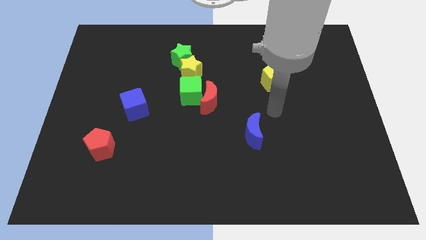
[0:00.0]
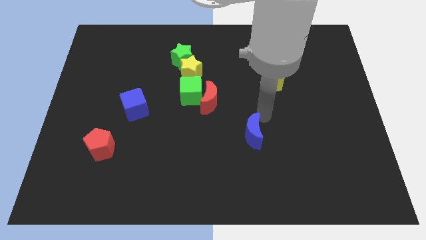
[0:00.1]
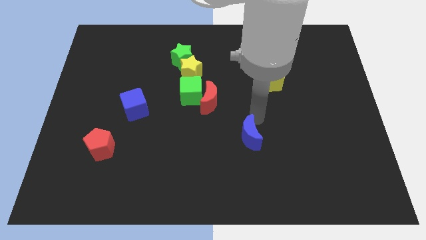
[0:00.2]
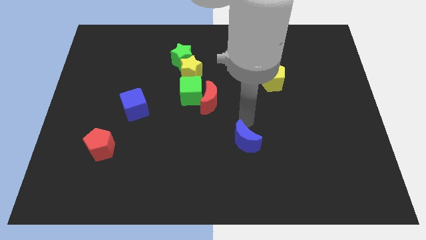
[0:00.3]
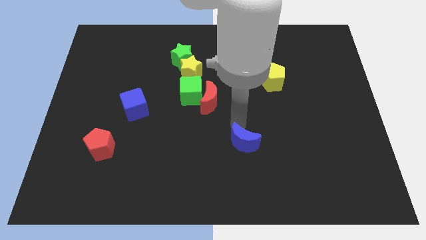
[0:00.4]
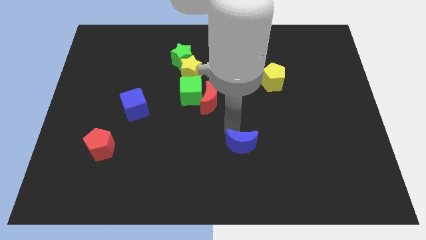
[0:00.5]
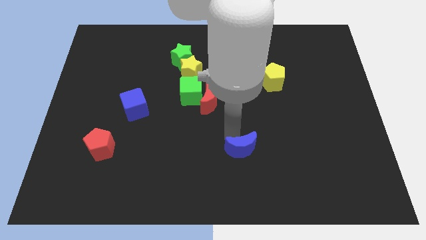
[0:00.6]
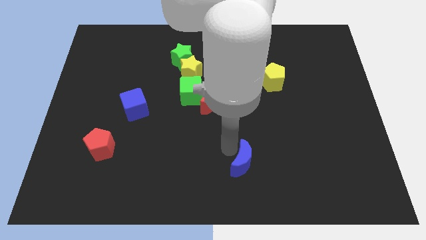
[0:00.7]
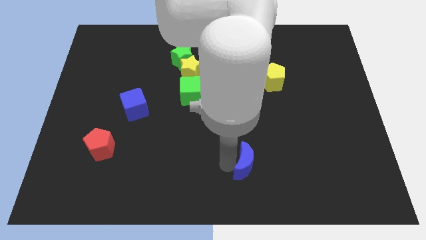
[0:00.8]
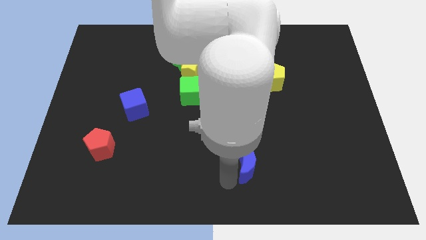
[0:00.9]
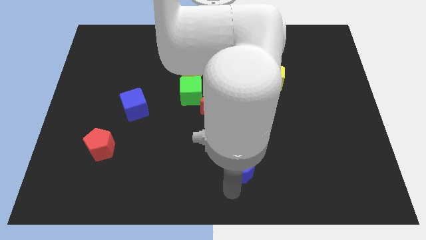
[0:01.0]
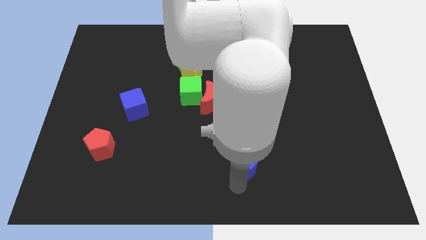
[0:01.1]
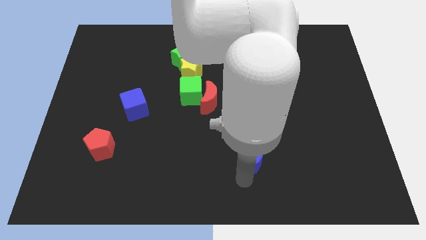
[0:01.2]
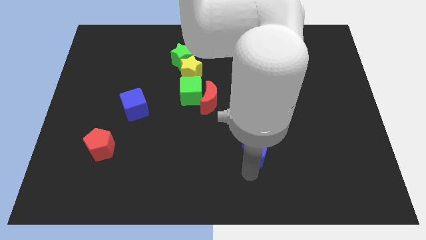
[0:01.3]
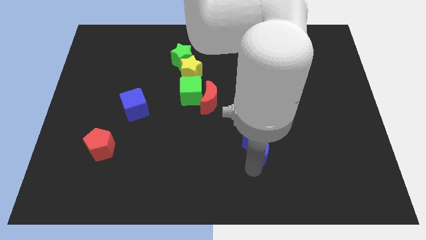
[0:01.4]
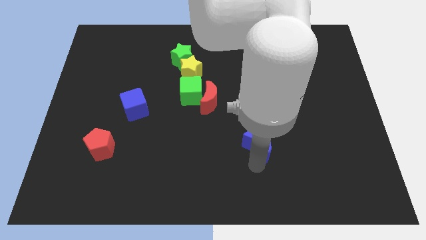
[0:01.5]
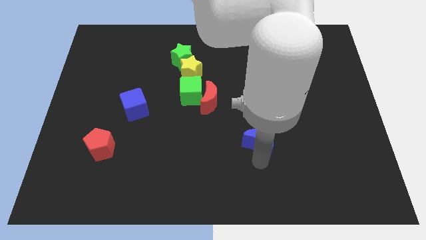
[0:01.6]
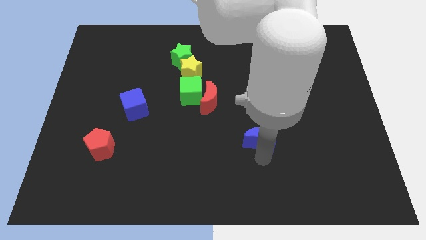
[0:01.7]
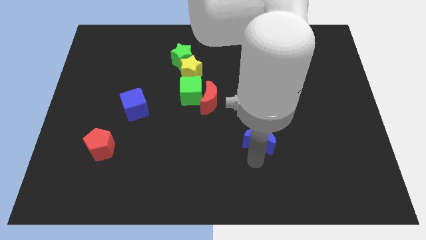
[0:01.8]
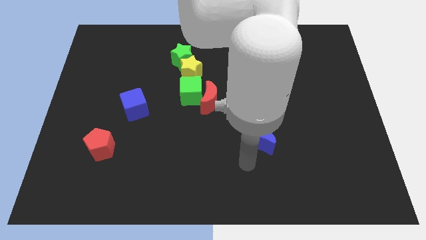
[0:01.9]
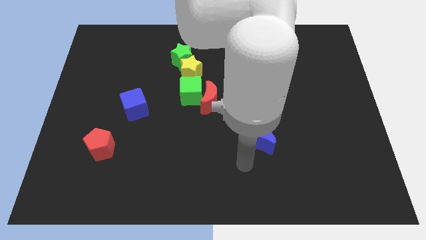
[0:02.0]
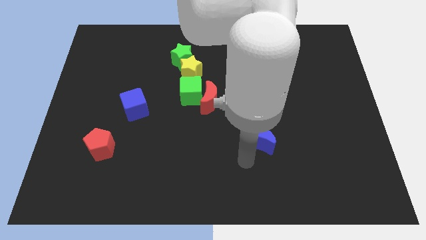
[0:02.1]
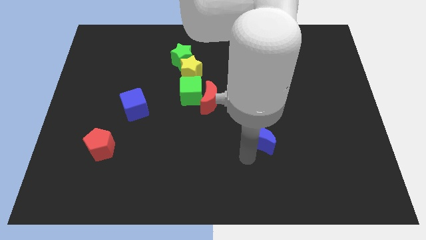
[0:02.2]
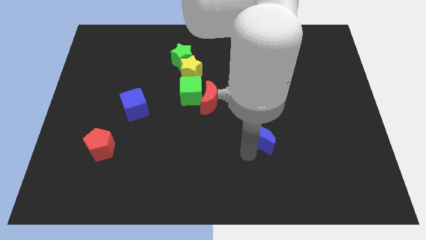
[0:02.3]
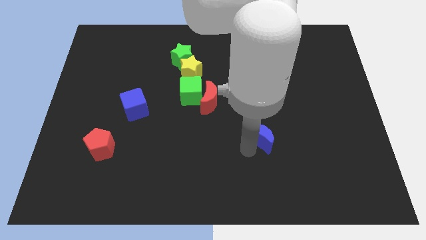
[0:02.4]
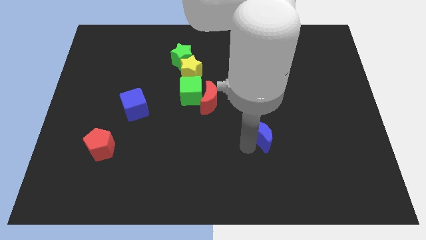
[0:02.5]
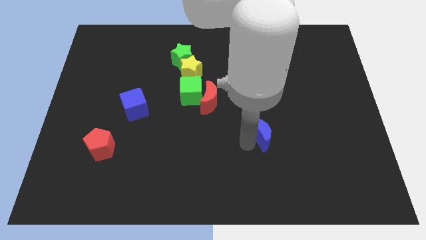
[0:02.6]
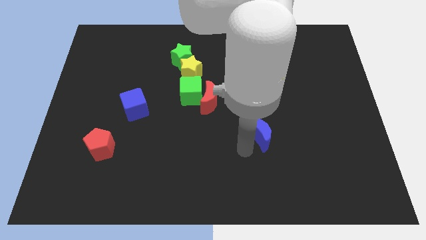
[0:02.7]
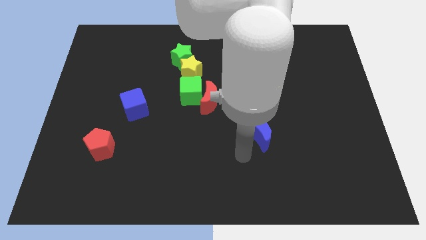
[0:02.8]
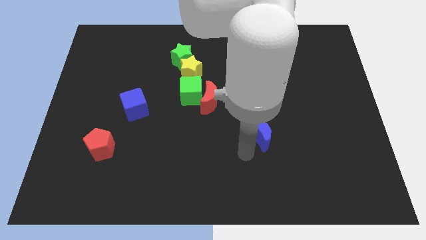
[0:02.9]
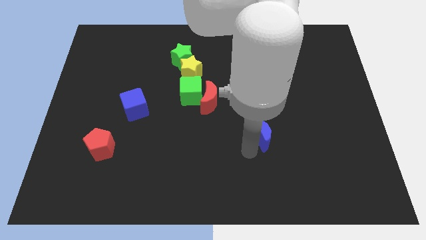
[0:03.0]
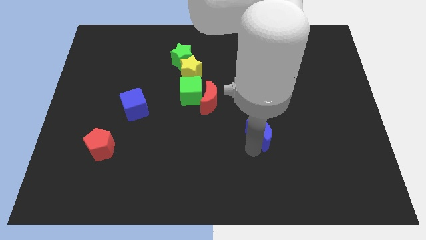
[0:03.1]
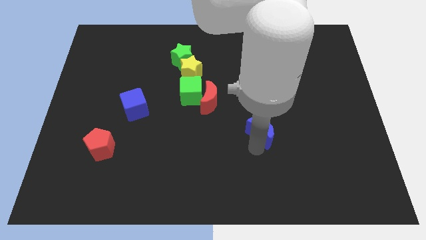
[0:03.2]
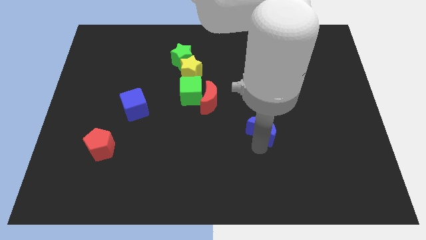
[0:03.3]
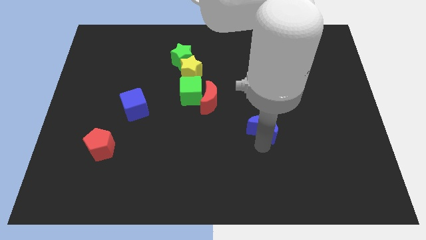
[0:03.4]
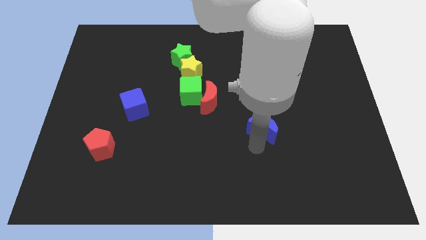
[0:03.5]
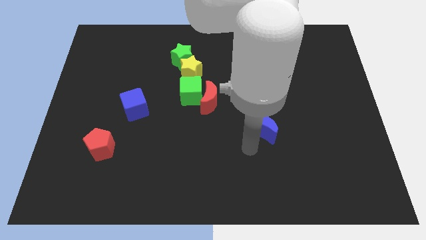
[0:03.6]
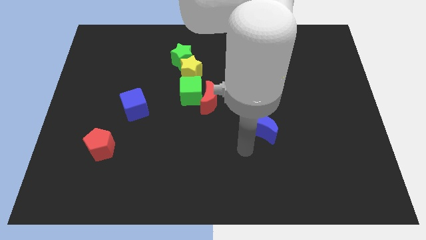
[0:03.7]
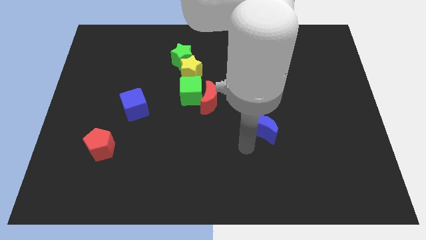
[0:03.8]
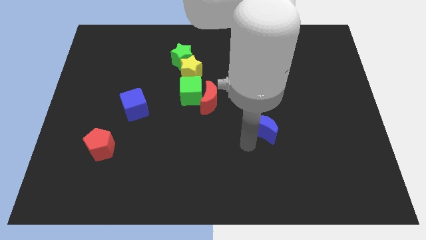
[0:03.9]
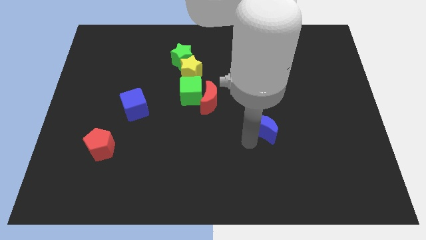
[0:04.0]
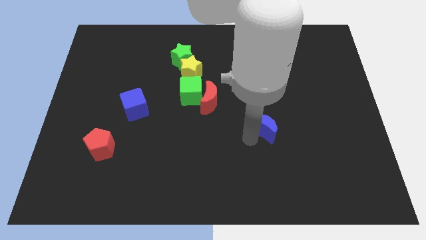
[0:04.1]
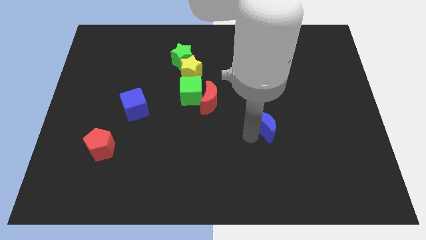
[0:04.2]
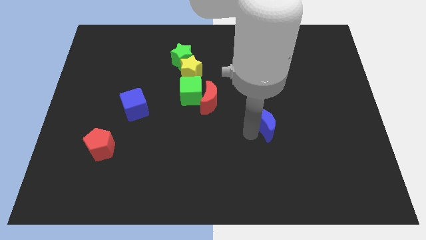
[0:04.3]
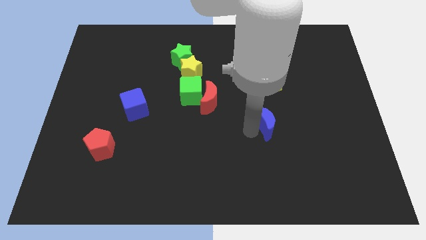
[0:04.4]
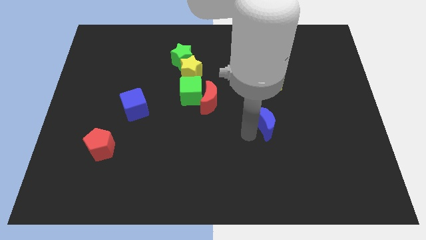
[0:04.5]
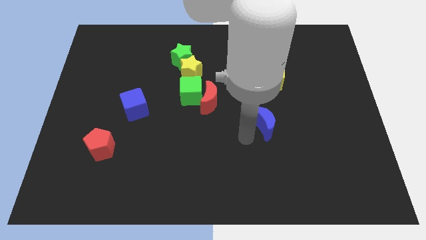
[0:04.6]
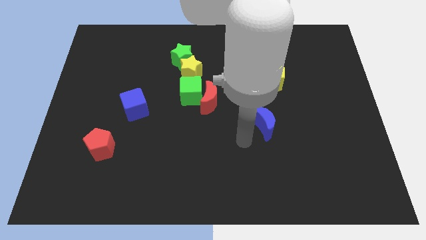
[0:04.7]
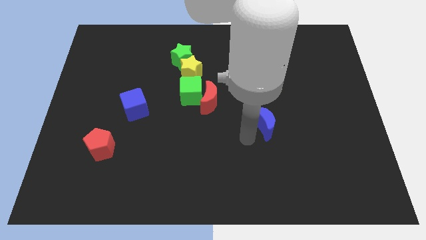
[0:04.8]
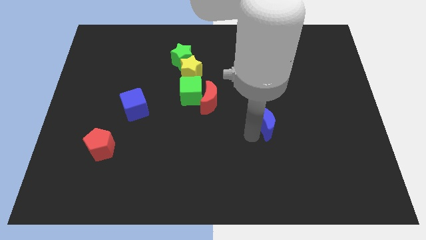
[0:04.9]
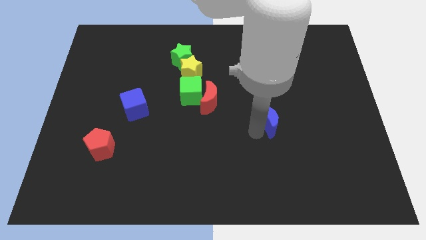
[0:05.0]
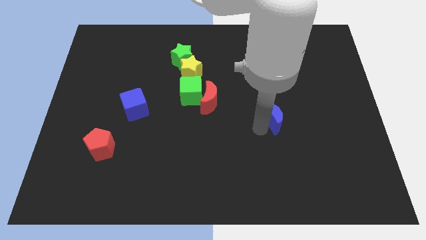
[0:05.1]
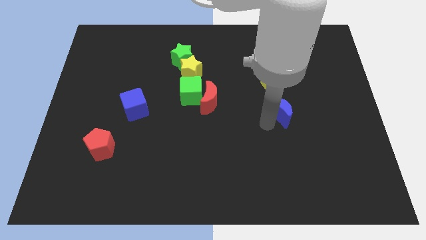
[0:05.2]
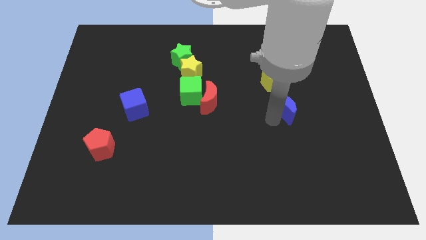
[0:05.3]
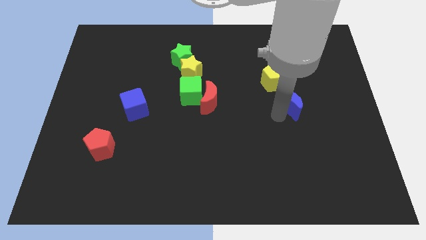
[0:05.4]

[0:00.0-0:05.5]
push the blue moon to the bottom right side of the yellow pentagon

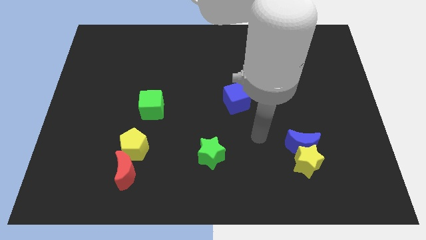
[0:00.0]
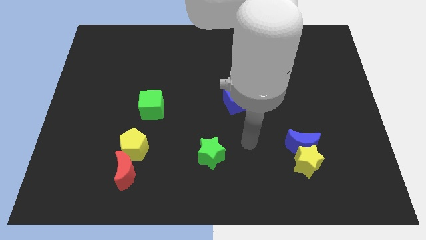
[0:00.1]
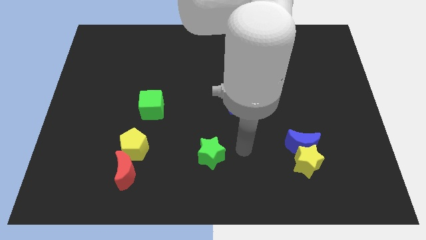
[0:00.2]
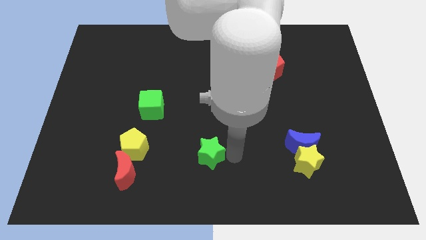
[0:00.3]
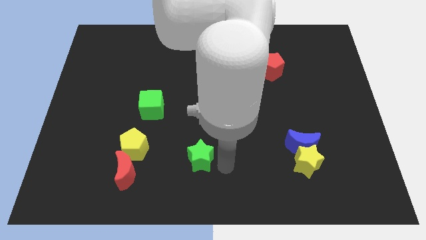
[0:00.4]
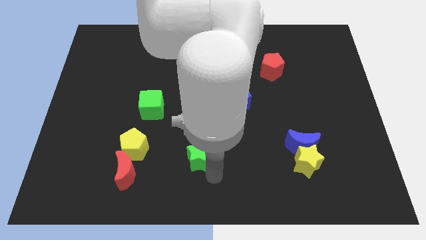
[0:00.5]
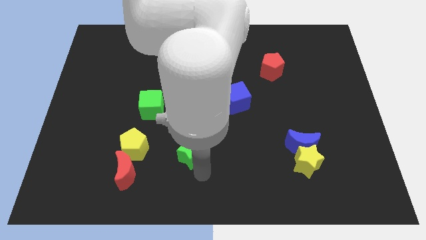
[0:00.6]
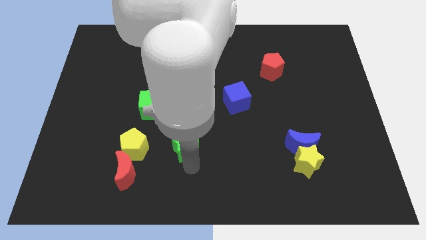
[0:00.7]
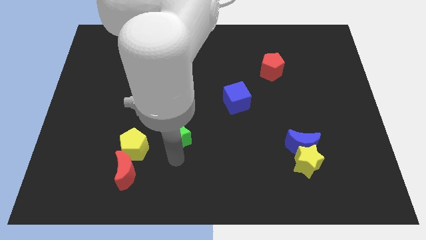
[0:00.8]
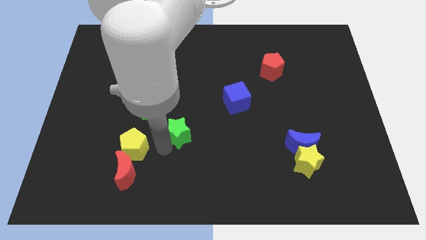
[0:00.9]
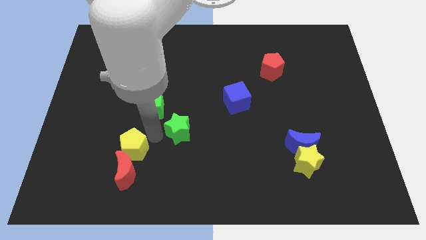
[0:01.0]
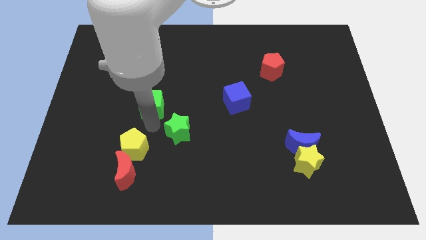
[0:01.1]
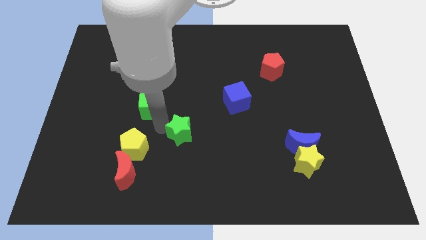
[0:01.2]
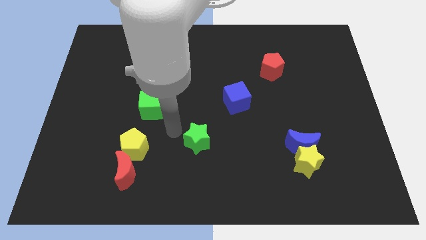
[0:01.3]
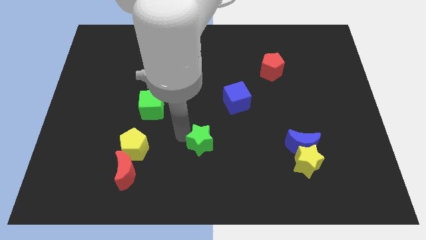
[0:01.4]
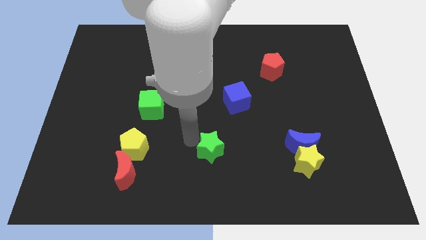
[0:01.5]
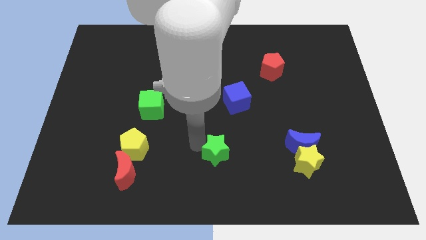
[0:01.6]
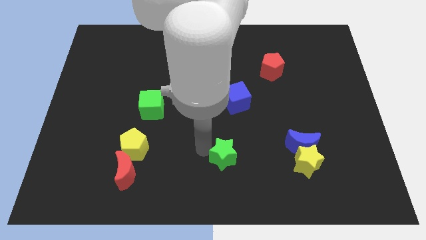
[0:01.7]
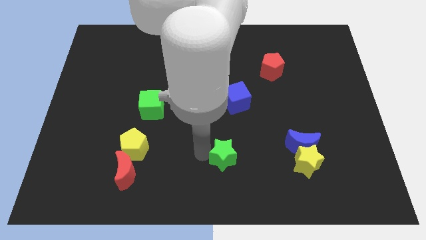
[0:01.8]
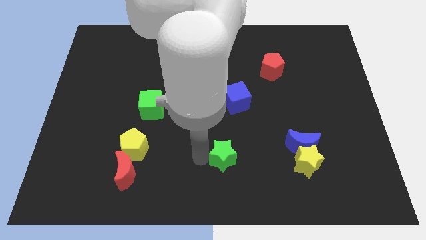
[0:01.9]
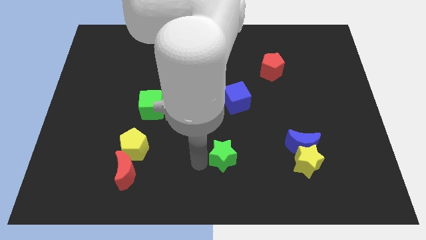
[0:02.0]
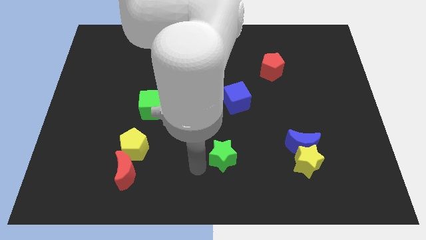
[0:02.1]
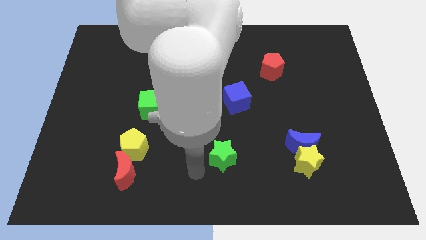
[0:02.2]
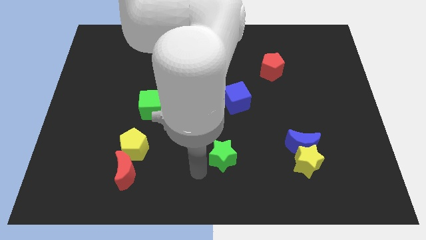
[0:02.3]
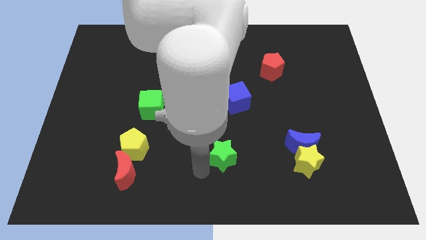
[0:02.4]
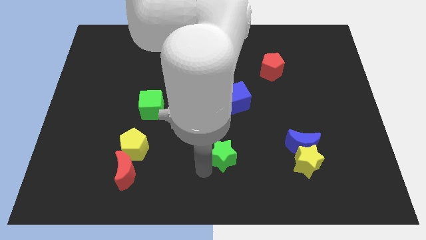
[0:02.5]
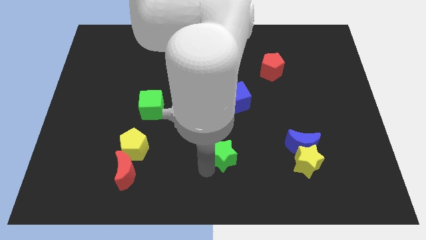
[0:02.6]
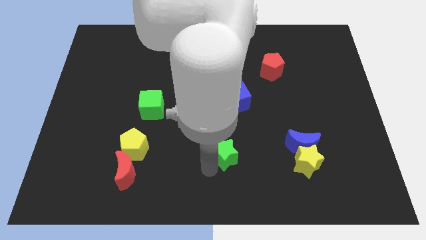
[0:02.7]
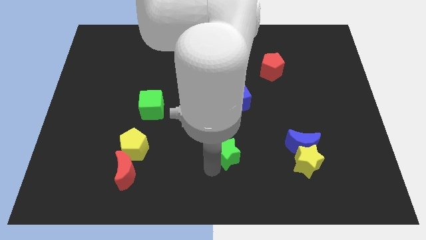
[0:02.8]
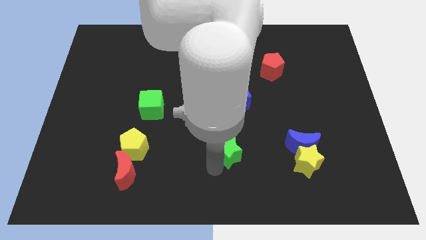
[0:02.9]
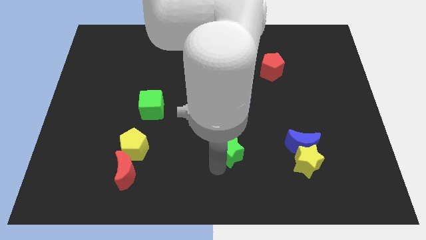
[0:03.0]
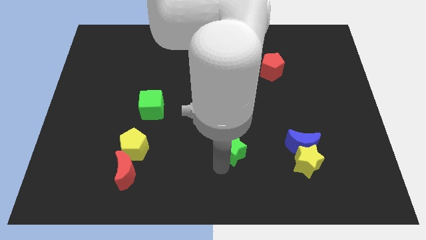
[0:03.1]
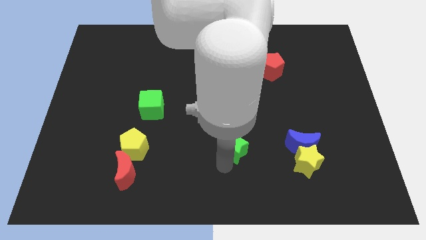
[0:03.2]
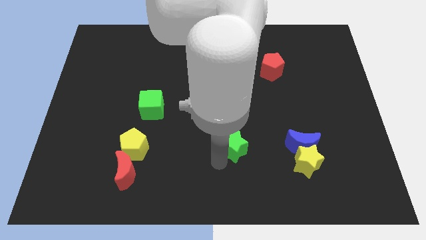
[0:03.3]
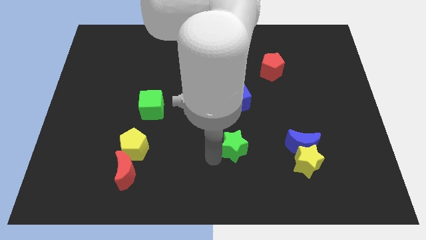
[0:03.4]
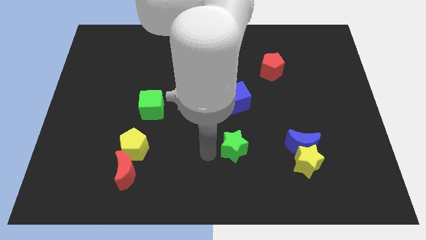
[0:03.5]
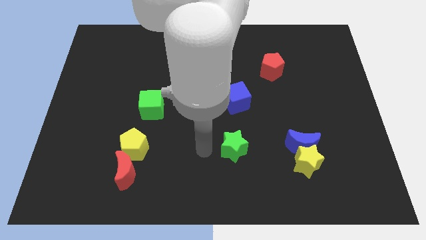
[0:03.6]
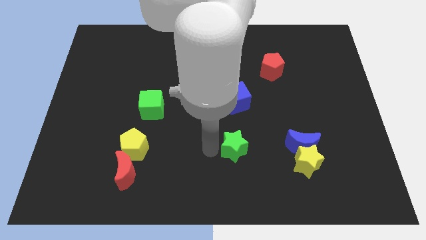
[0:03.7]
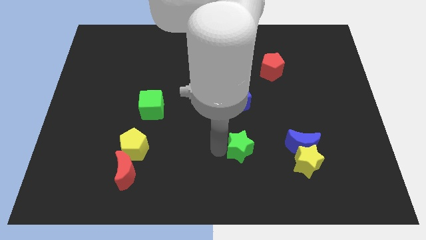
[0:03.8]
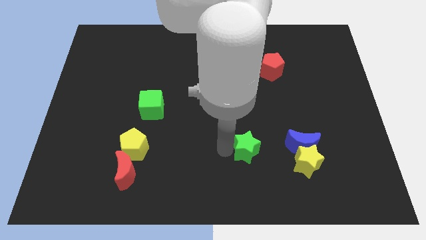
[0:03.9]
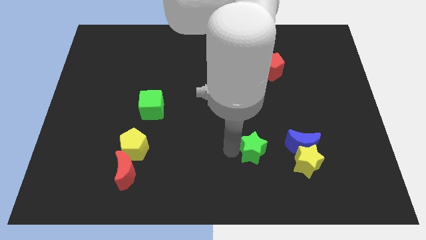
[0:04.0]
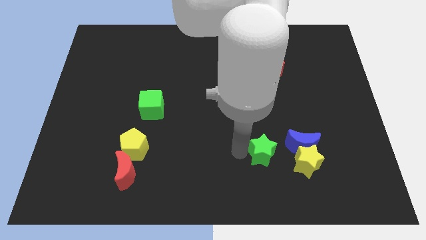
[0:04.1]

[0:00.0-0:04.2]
slide the green star to the top left of the yellow star
